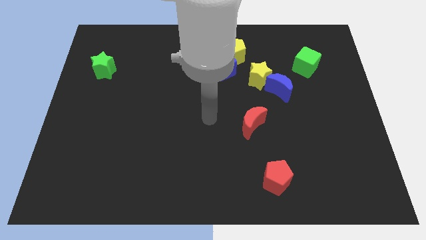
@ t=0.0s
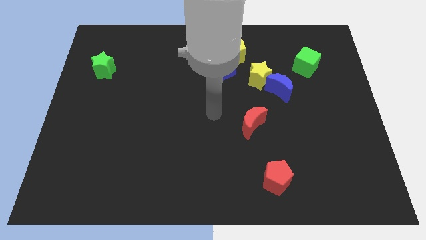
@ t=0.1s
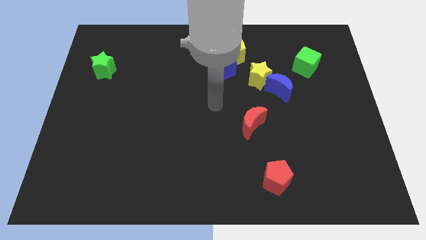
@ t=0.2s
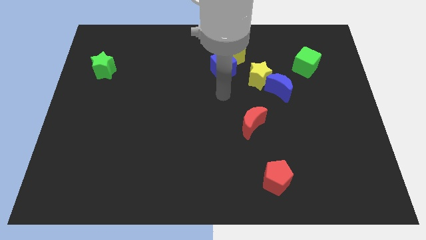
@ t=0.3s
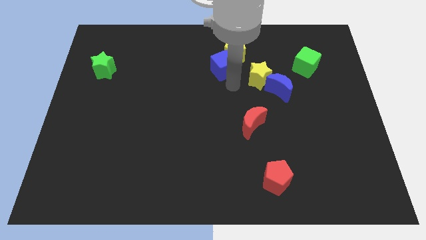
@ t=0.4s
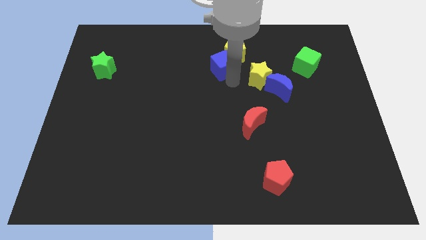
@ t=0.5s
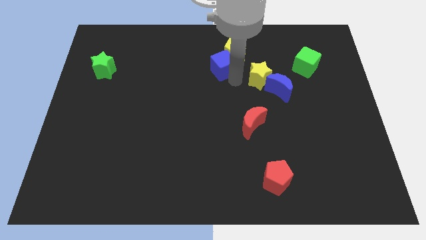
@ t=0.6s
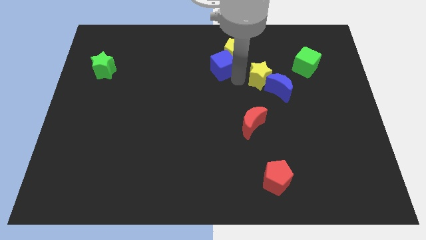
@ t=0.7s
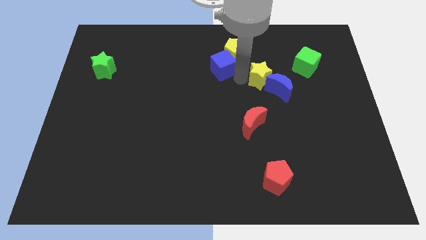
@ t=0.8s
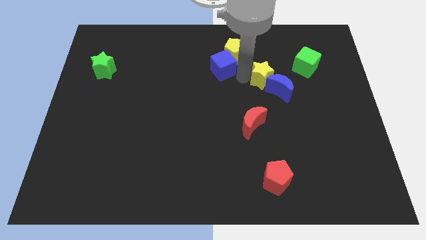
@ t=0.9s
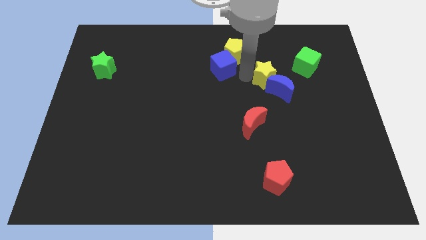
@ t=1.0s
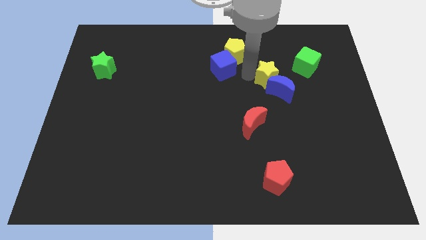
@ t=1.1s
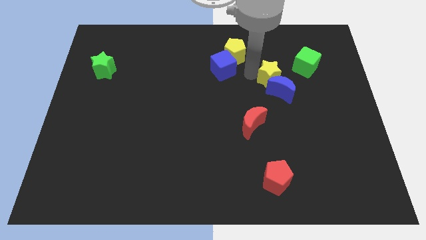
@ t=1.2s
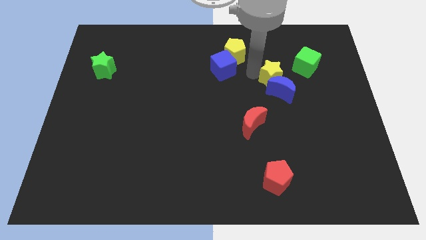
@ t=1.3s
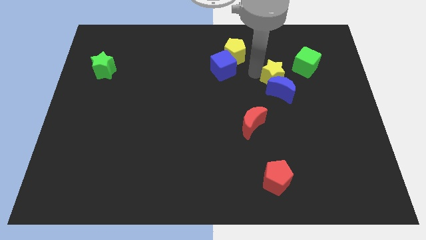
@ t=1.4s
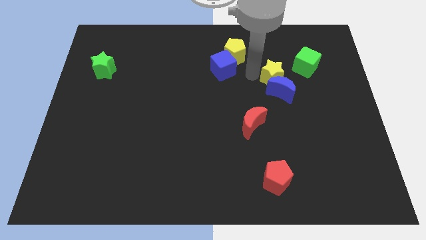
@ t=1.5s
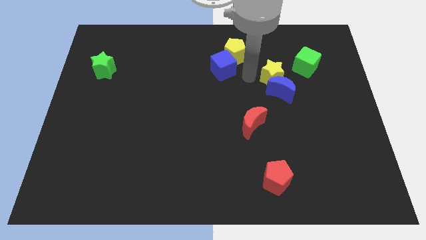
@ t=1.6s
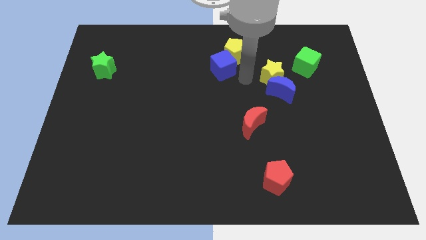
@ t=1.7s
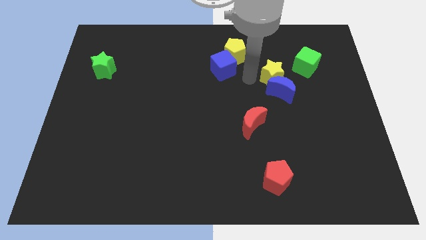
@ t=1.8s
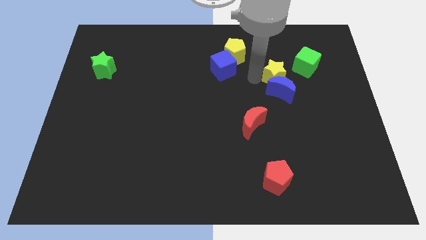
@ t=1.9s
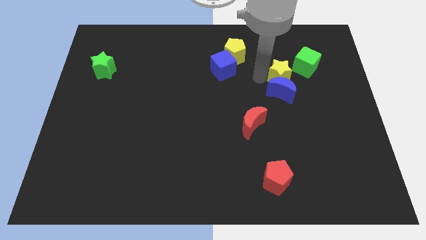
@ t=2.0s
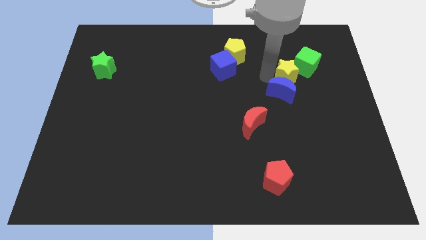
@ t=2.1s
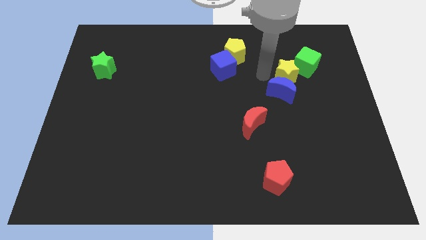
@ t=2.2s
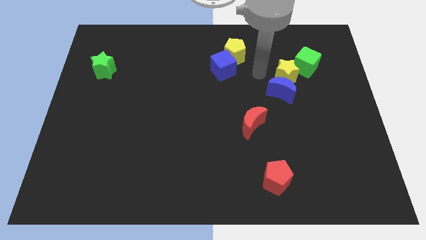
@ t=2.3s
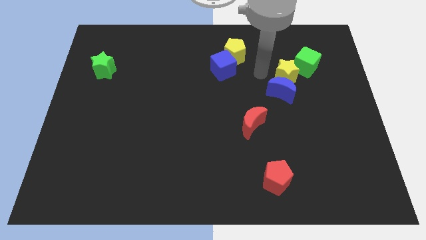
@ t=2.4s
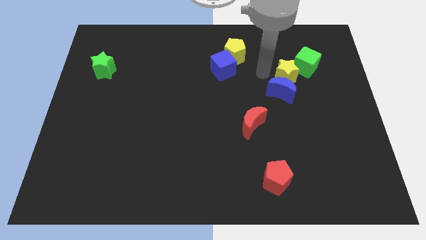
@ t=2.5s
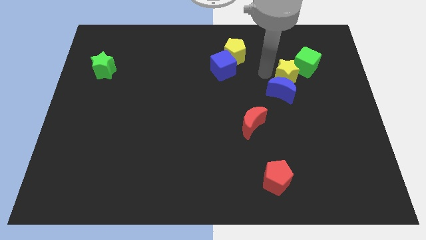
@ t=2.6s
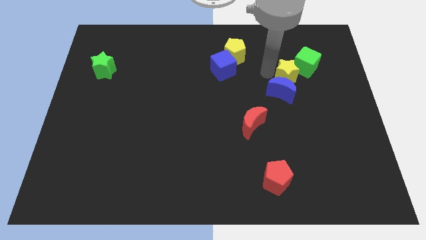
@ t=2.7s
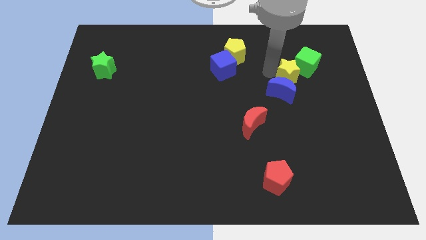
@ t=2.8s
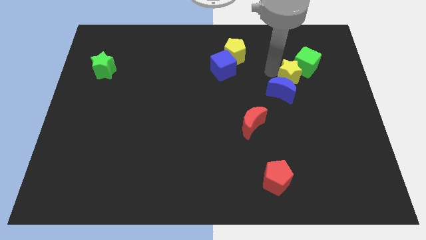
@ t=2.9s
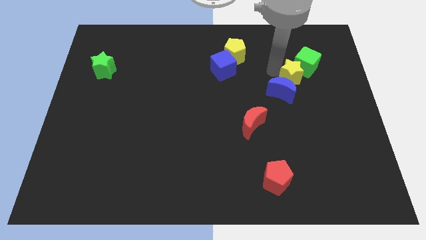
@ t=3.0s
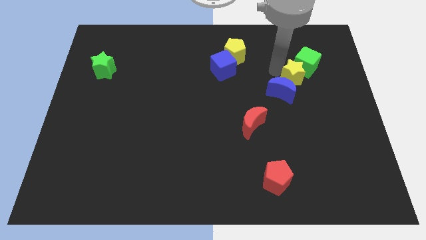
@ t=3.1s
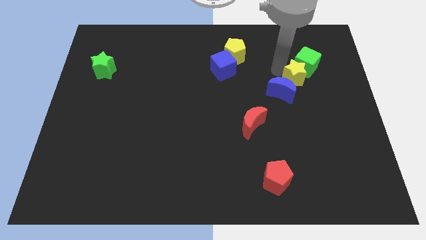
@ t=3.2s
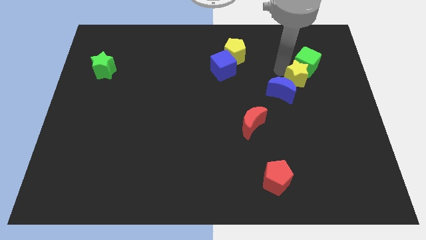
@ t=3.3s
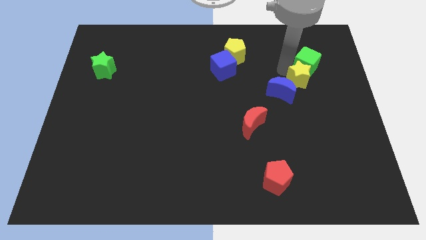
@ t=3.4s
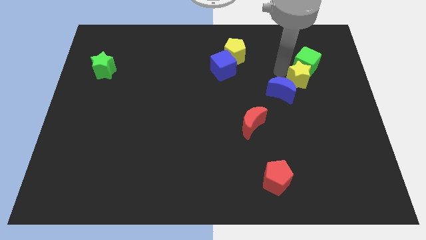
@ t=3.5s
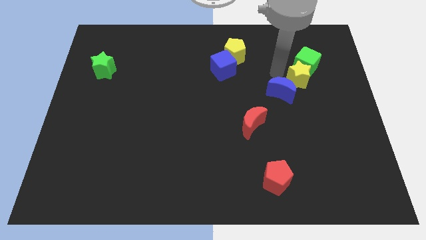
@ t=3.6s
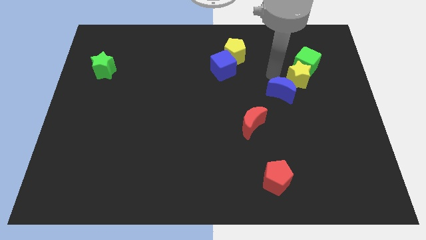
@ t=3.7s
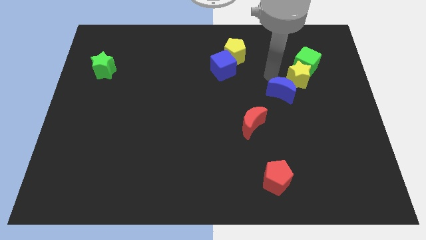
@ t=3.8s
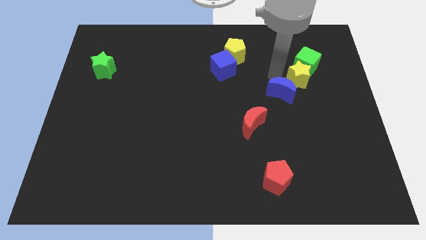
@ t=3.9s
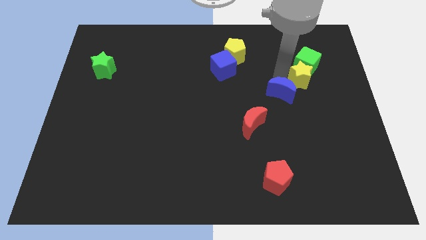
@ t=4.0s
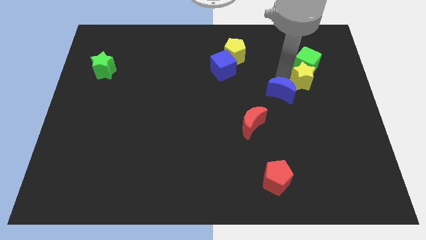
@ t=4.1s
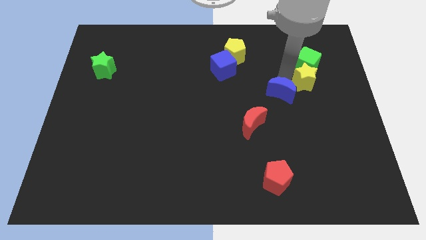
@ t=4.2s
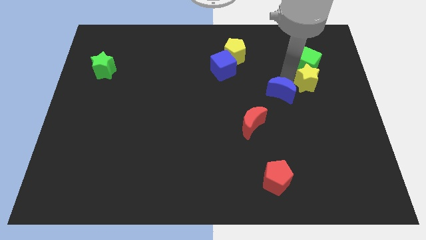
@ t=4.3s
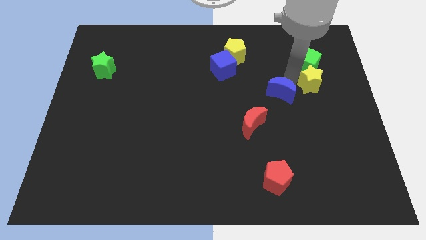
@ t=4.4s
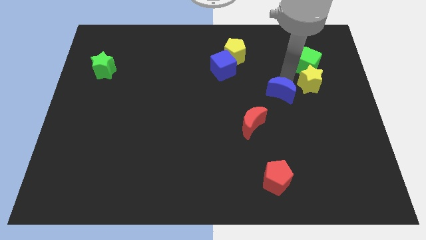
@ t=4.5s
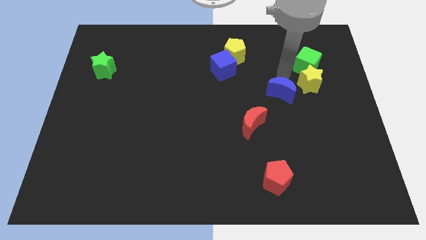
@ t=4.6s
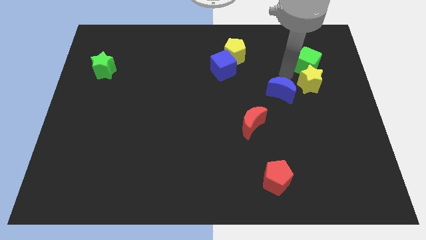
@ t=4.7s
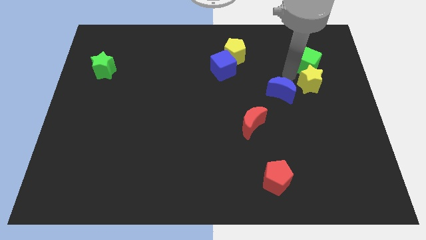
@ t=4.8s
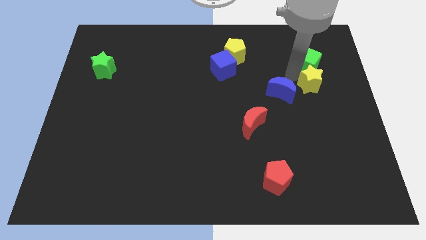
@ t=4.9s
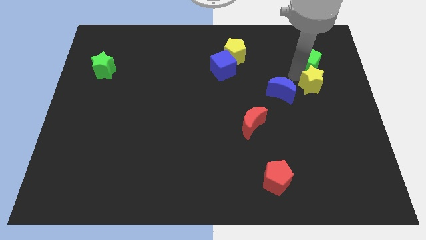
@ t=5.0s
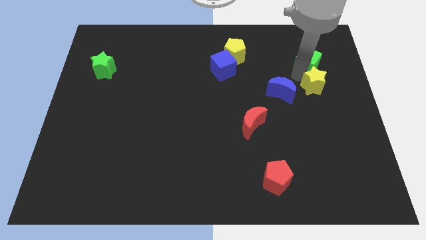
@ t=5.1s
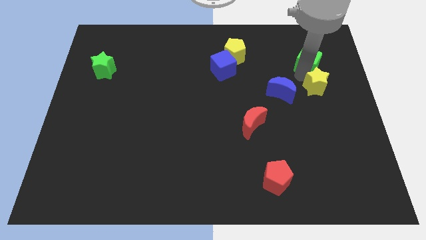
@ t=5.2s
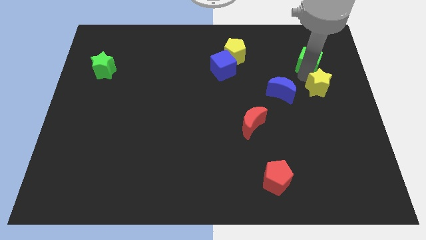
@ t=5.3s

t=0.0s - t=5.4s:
slide the yellow star to the right side of the board
